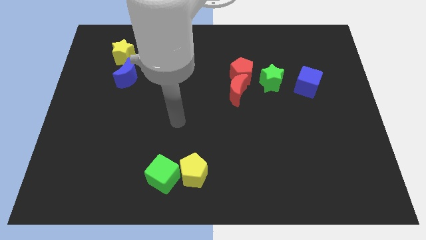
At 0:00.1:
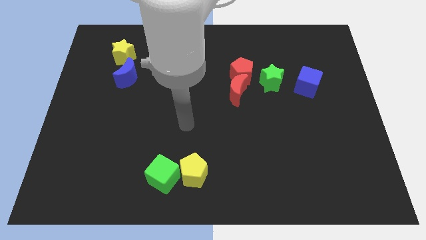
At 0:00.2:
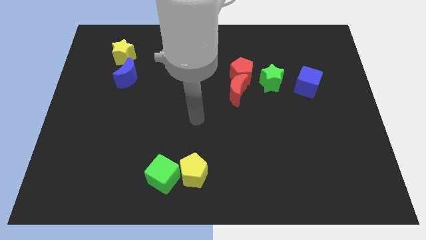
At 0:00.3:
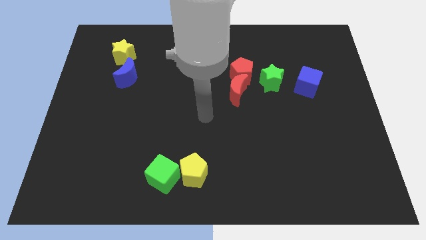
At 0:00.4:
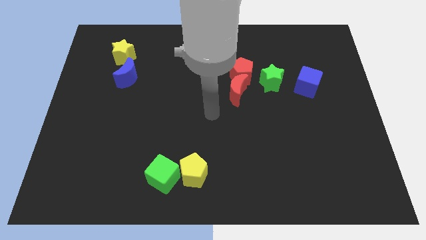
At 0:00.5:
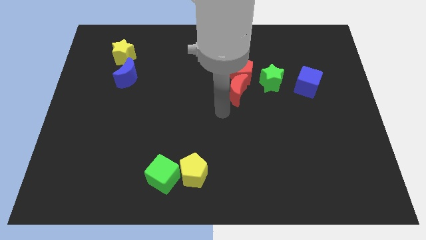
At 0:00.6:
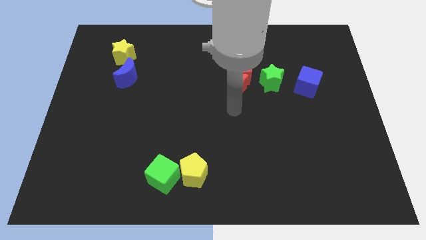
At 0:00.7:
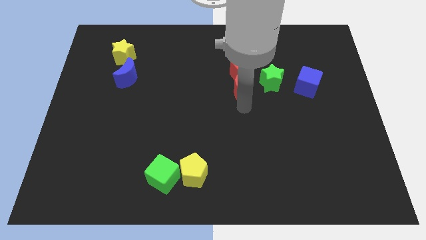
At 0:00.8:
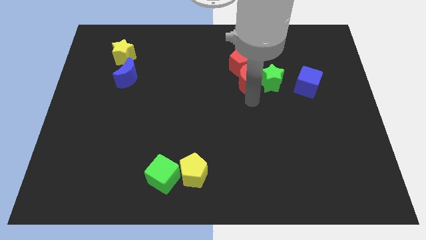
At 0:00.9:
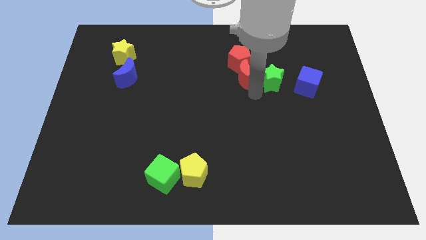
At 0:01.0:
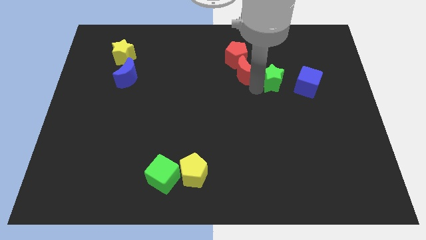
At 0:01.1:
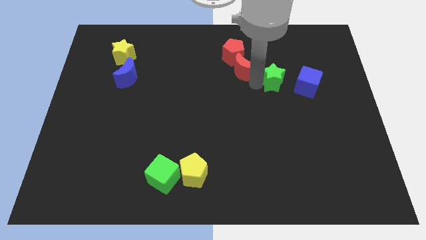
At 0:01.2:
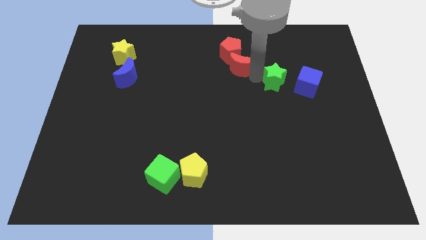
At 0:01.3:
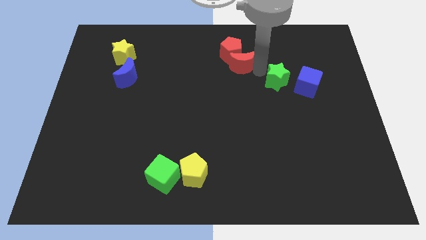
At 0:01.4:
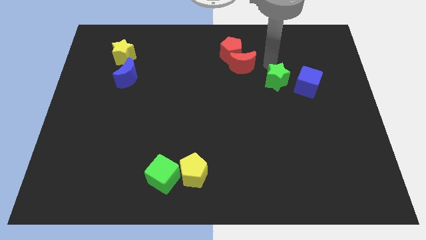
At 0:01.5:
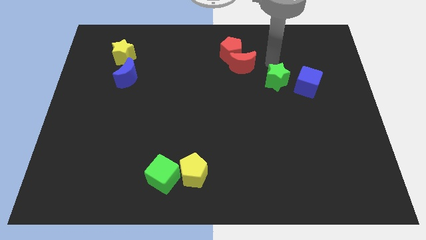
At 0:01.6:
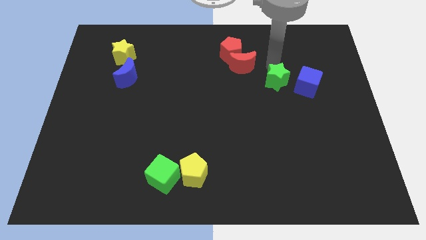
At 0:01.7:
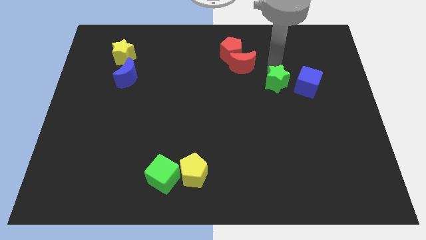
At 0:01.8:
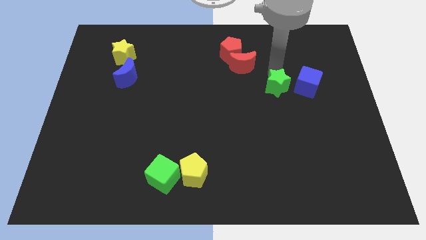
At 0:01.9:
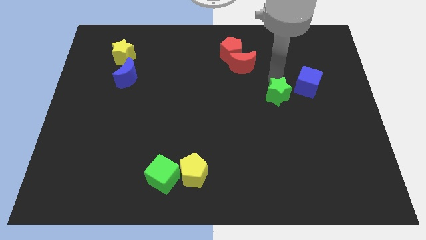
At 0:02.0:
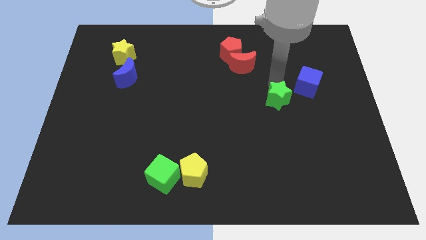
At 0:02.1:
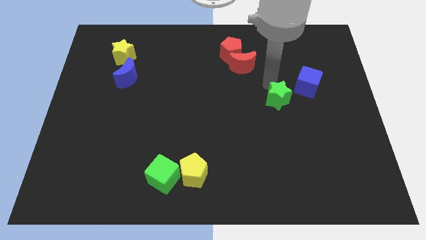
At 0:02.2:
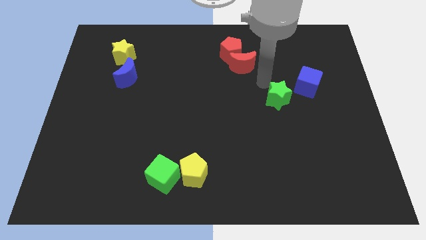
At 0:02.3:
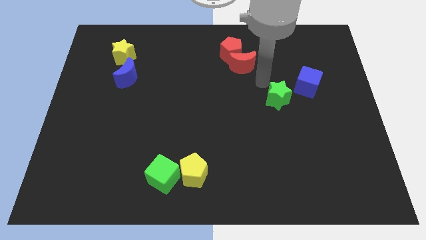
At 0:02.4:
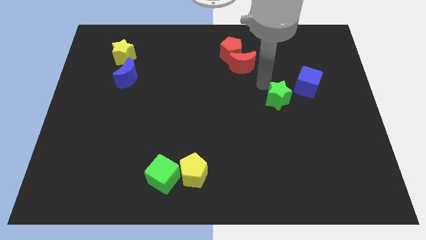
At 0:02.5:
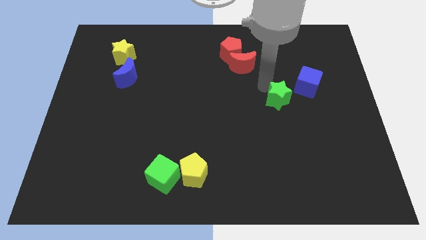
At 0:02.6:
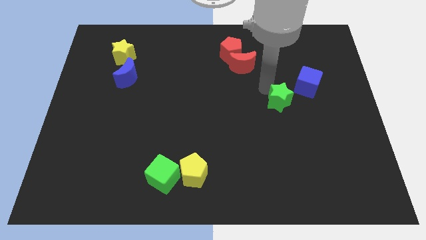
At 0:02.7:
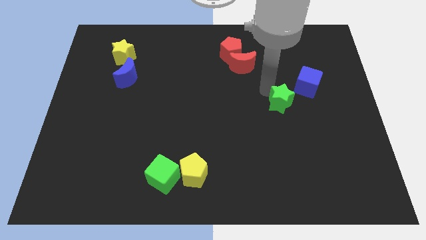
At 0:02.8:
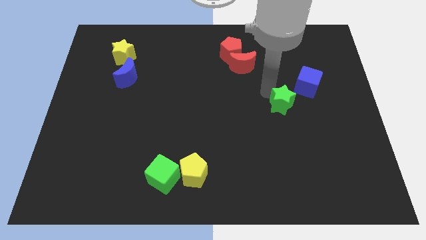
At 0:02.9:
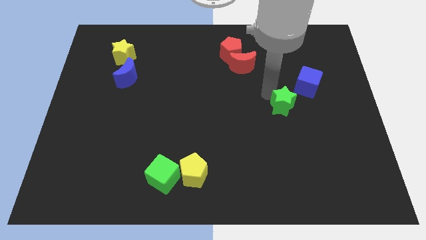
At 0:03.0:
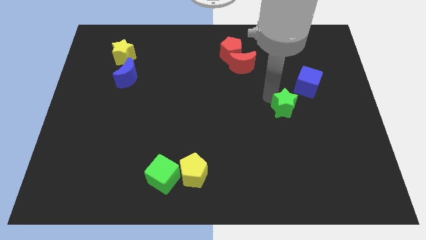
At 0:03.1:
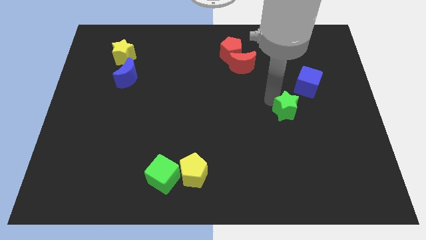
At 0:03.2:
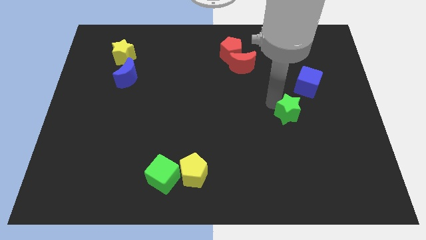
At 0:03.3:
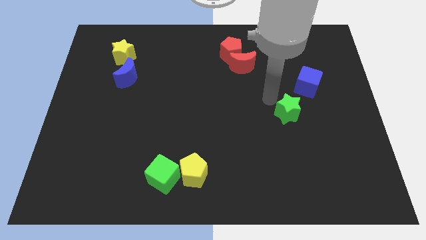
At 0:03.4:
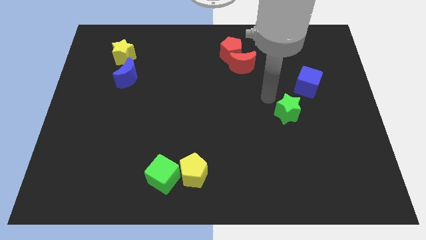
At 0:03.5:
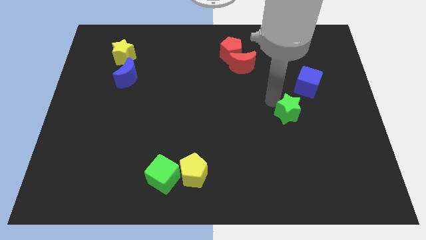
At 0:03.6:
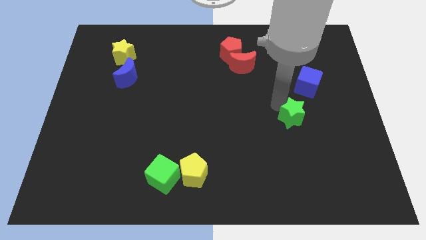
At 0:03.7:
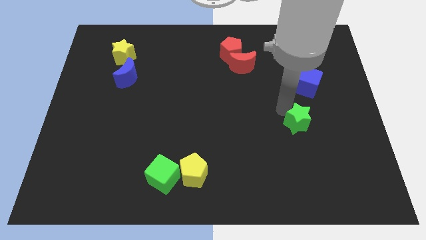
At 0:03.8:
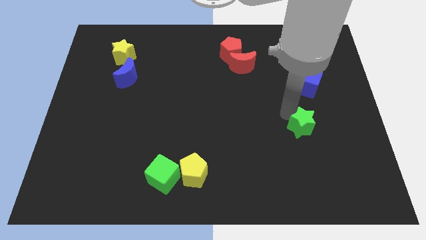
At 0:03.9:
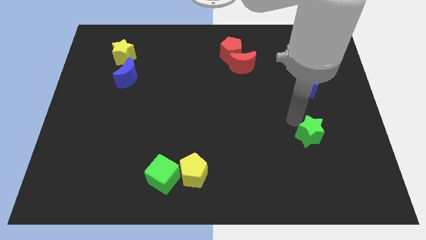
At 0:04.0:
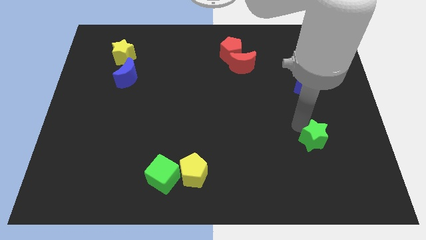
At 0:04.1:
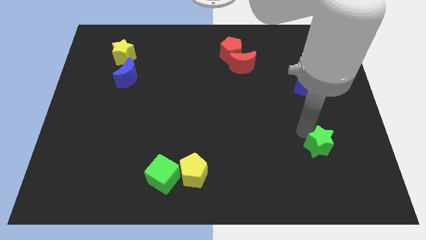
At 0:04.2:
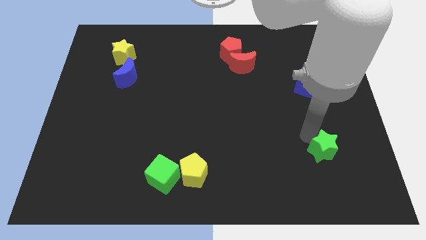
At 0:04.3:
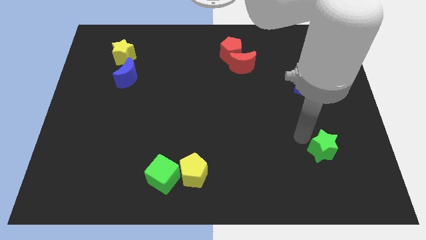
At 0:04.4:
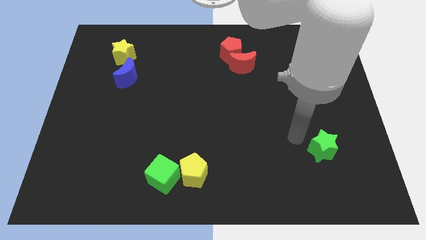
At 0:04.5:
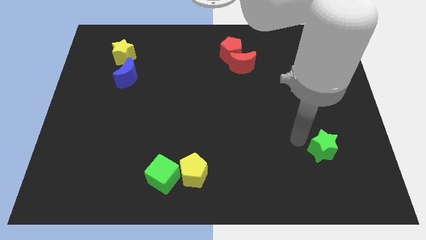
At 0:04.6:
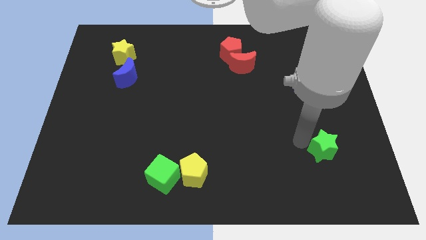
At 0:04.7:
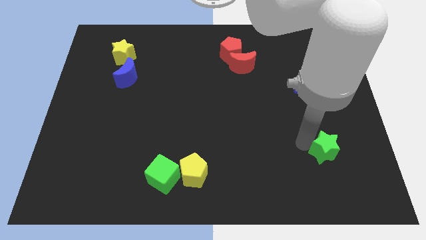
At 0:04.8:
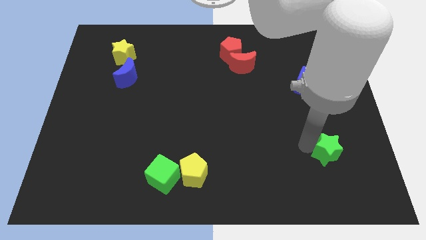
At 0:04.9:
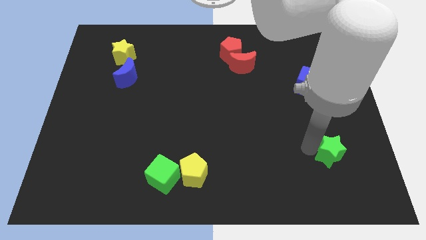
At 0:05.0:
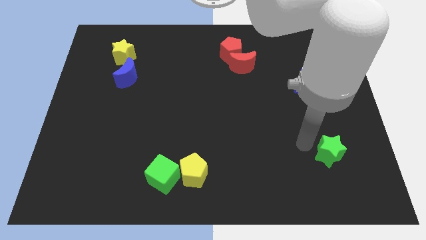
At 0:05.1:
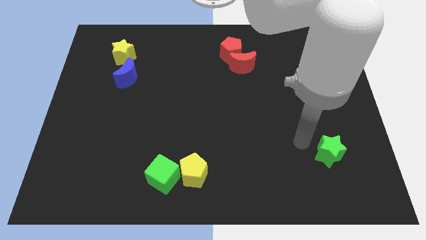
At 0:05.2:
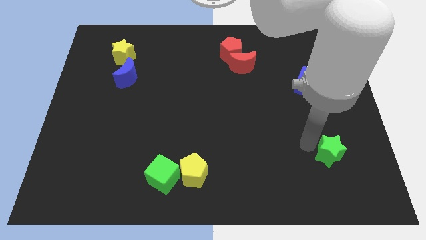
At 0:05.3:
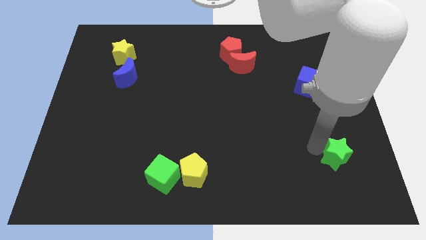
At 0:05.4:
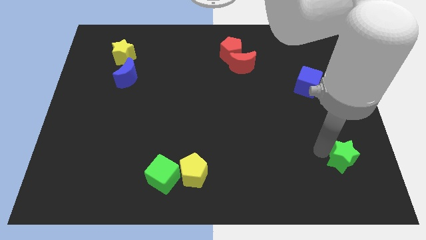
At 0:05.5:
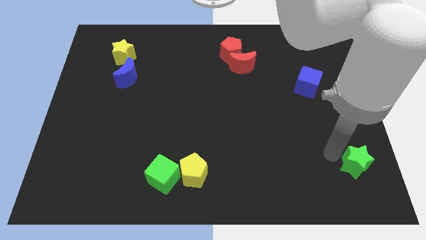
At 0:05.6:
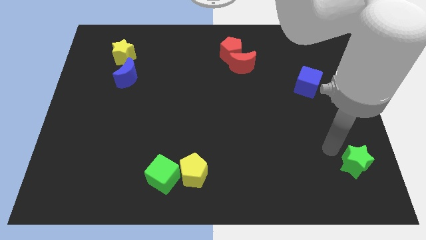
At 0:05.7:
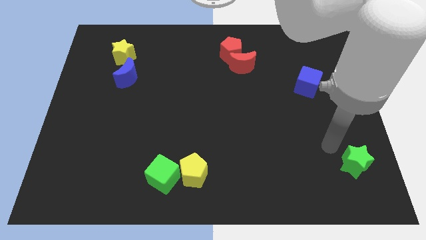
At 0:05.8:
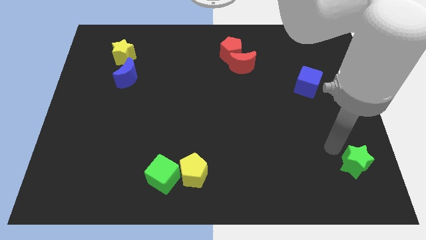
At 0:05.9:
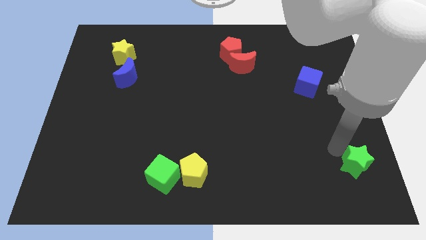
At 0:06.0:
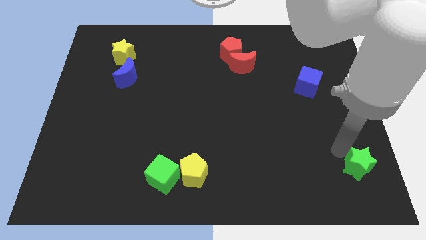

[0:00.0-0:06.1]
push the green star to the lower right corner
